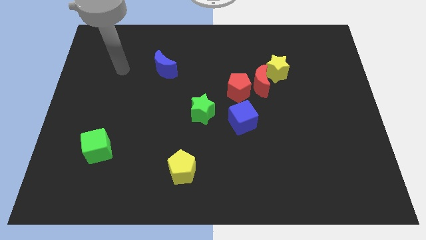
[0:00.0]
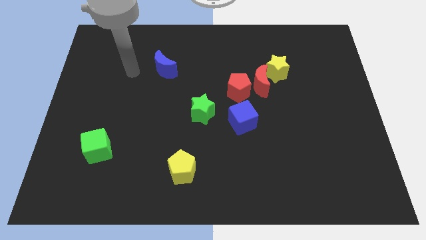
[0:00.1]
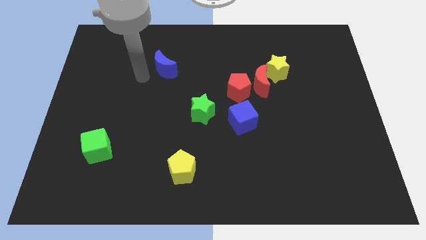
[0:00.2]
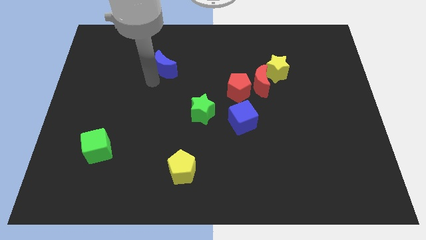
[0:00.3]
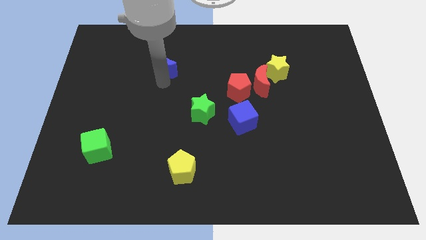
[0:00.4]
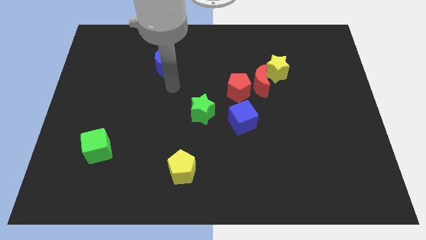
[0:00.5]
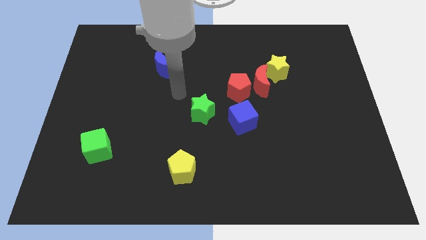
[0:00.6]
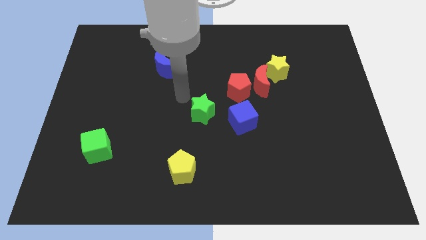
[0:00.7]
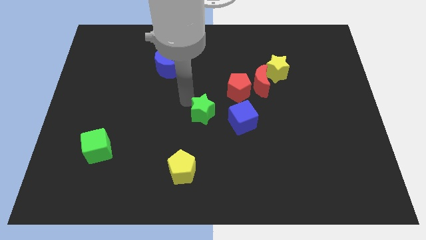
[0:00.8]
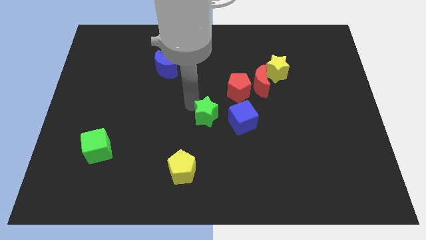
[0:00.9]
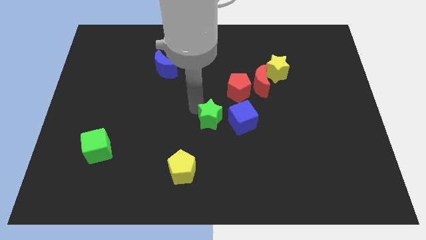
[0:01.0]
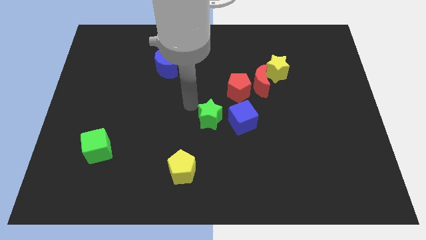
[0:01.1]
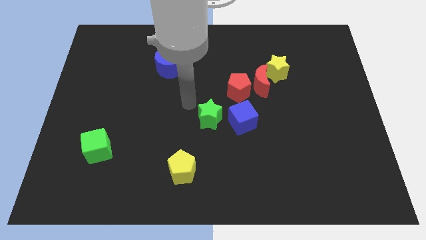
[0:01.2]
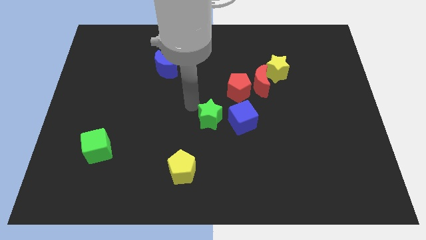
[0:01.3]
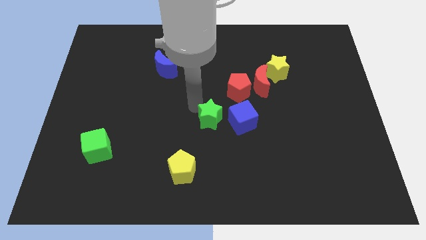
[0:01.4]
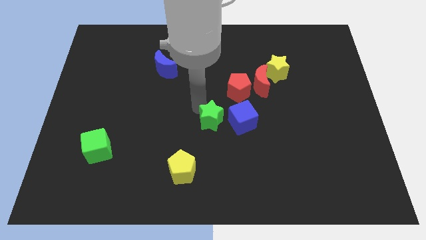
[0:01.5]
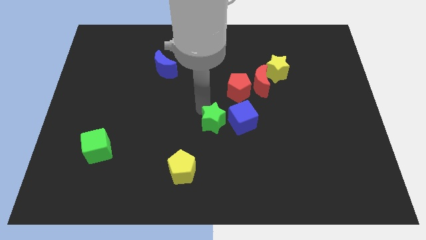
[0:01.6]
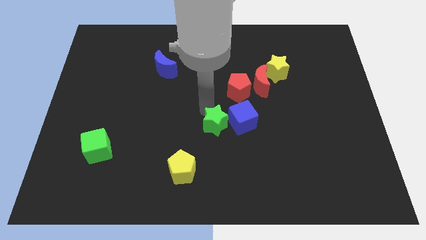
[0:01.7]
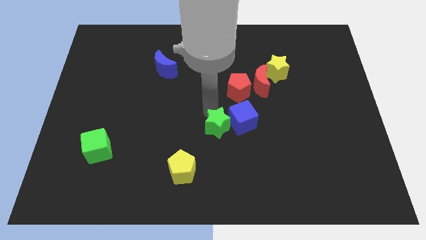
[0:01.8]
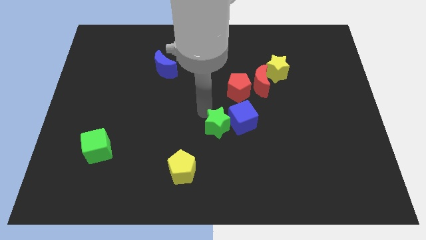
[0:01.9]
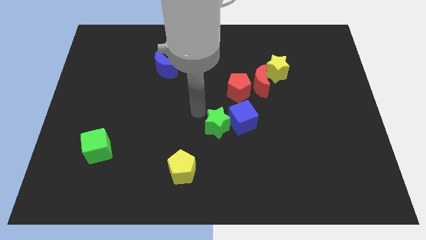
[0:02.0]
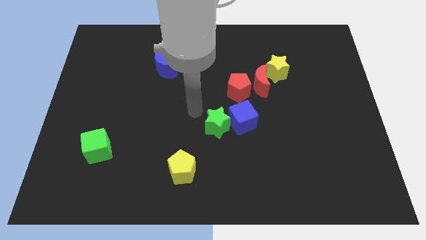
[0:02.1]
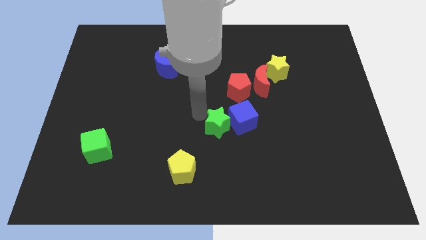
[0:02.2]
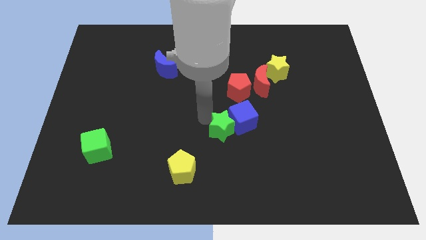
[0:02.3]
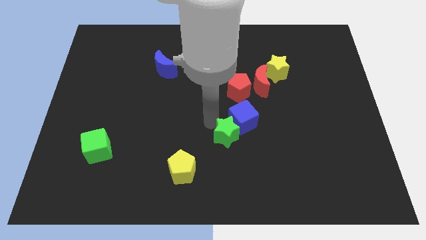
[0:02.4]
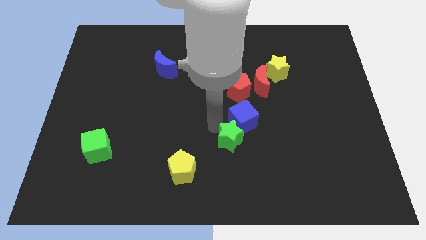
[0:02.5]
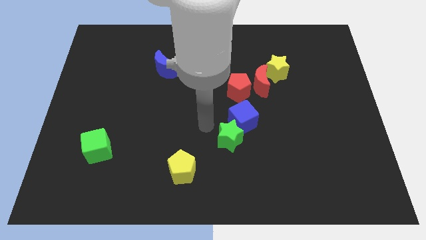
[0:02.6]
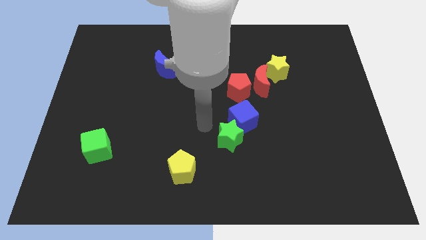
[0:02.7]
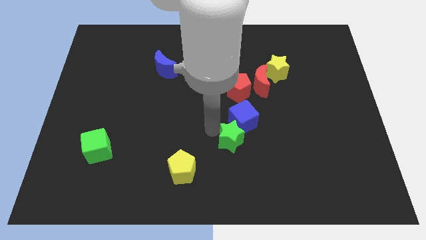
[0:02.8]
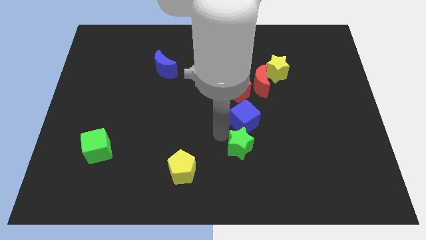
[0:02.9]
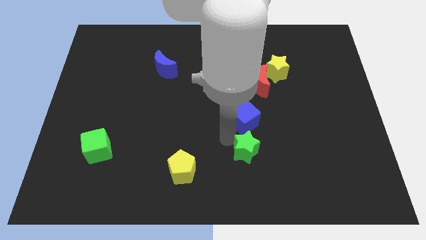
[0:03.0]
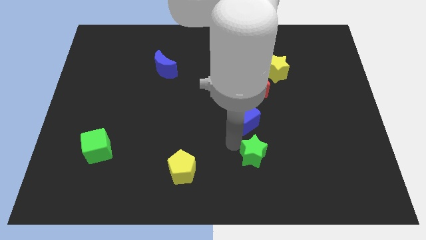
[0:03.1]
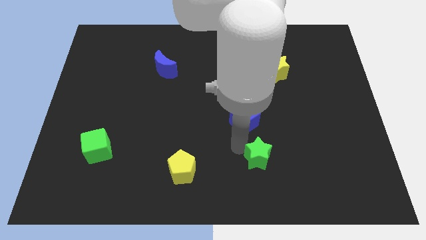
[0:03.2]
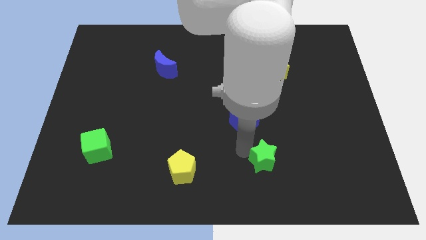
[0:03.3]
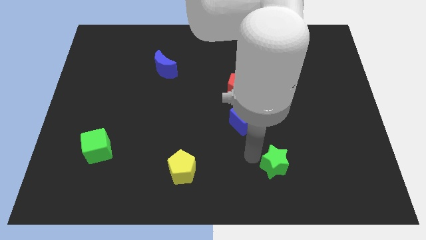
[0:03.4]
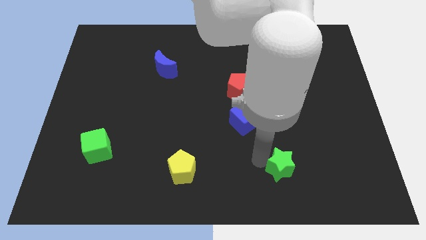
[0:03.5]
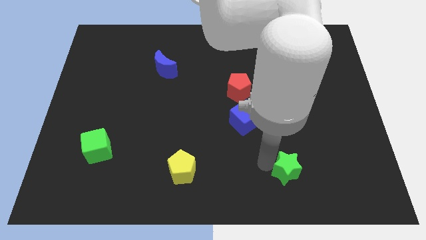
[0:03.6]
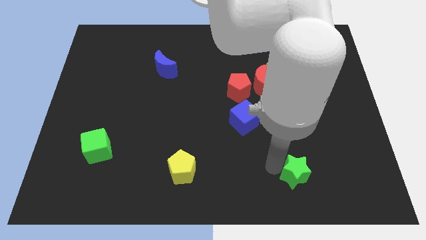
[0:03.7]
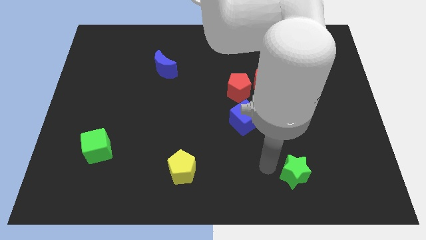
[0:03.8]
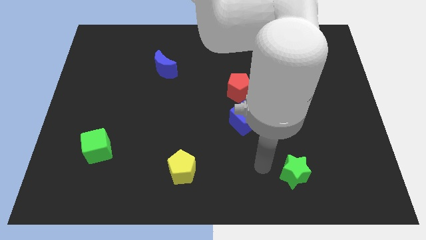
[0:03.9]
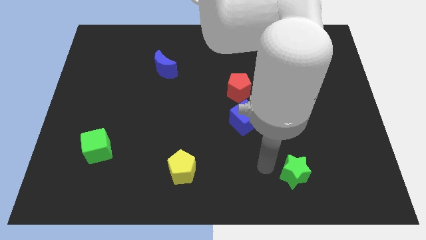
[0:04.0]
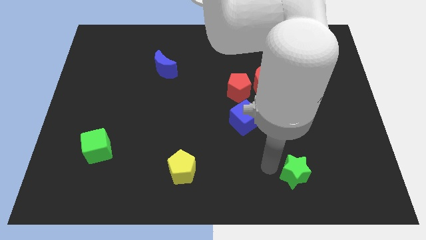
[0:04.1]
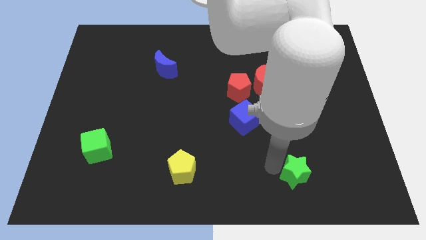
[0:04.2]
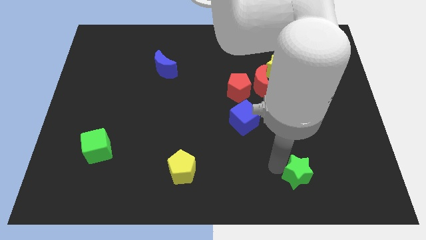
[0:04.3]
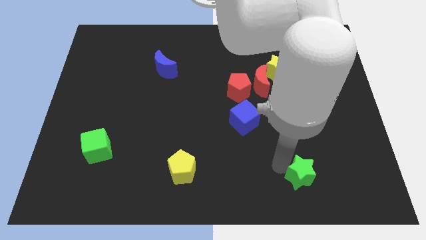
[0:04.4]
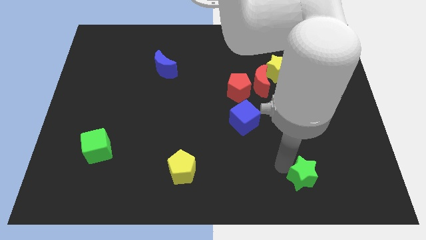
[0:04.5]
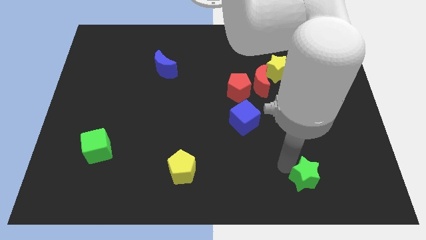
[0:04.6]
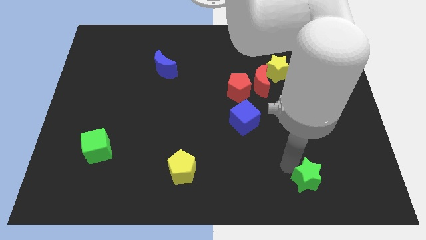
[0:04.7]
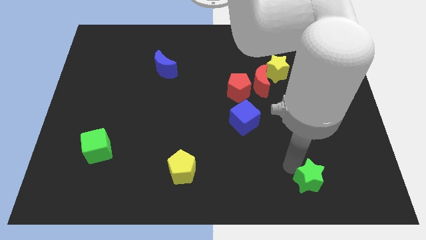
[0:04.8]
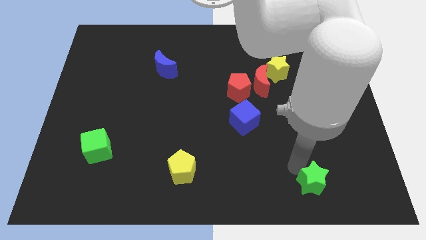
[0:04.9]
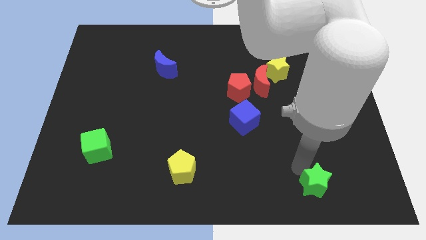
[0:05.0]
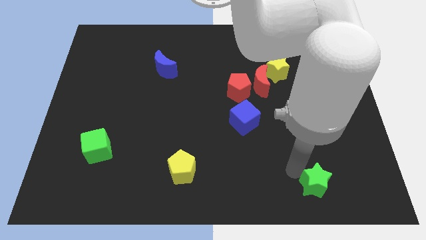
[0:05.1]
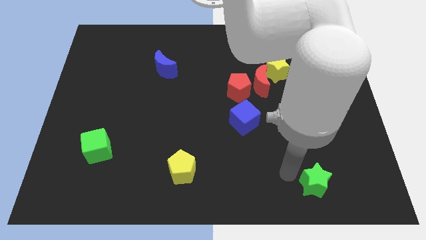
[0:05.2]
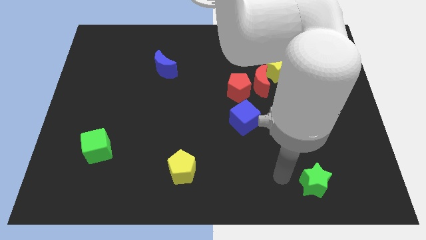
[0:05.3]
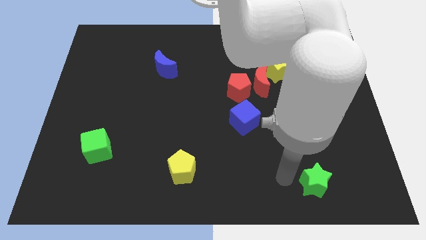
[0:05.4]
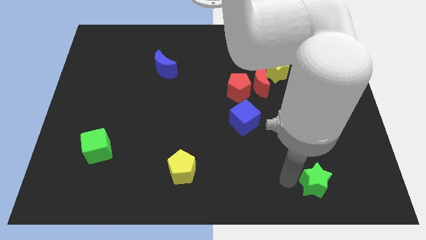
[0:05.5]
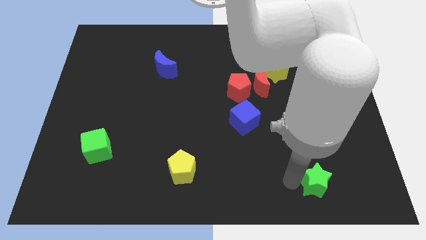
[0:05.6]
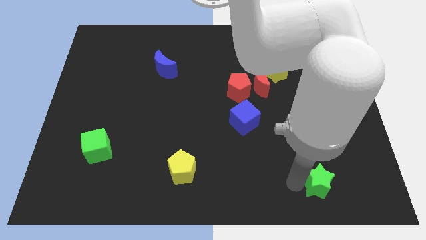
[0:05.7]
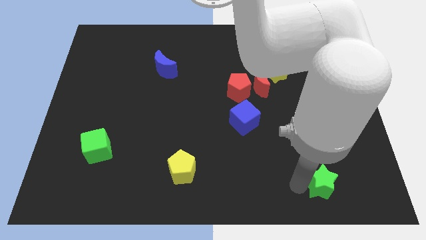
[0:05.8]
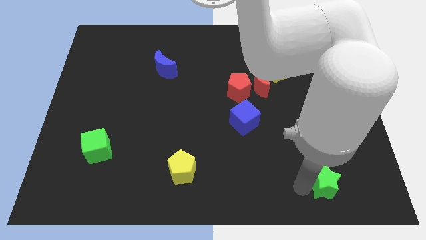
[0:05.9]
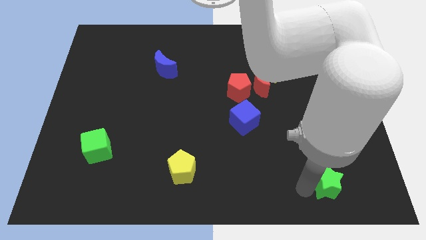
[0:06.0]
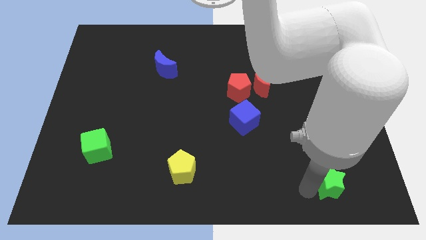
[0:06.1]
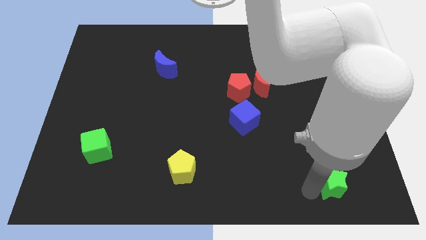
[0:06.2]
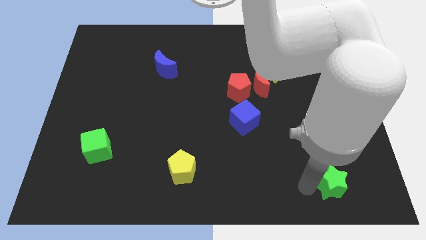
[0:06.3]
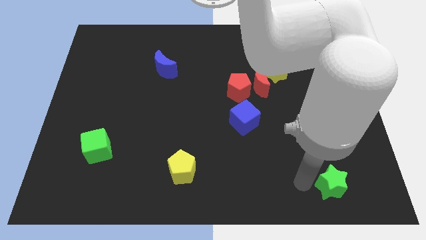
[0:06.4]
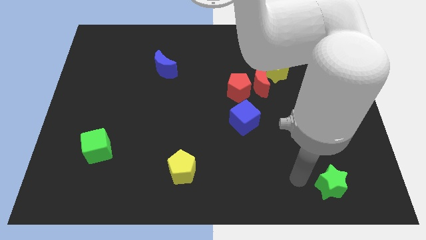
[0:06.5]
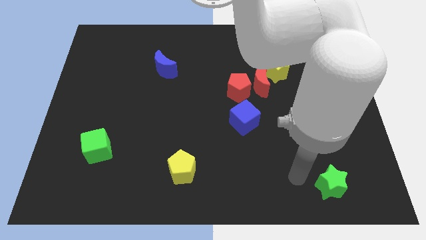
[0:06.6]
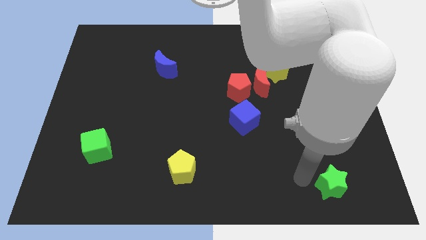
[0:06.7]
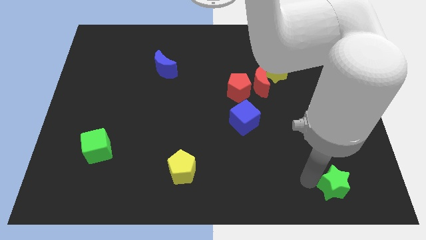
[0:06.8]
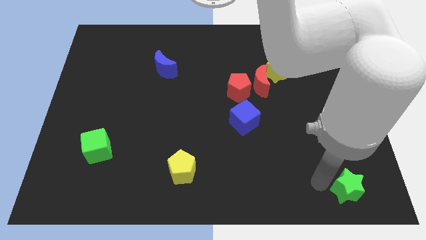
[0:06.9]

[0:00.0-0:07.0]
put the green star to the lower right corner

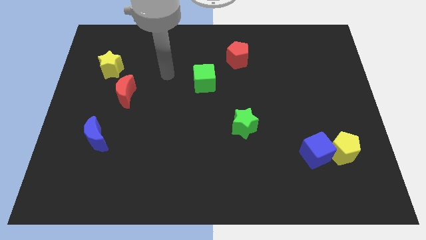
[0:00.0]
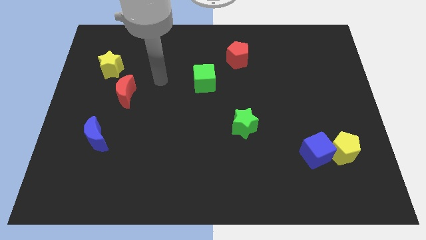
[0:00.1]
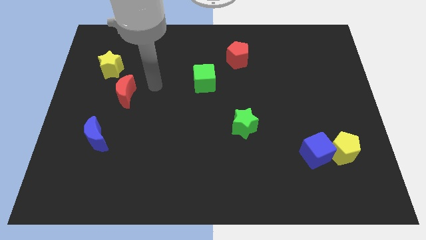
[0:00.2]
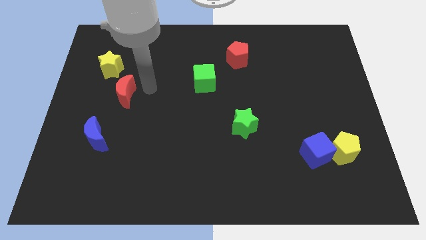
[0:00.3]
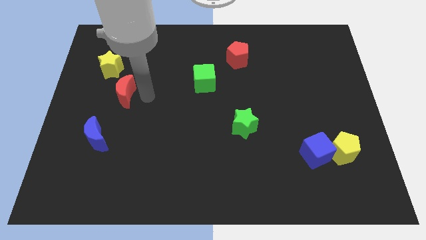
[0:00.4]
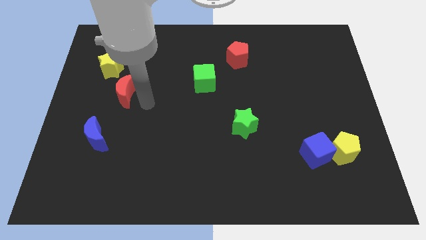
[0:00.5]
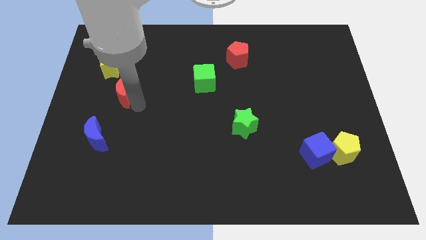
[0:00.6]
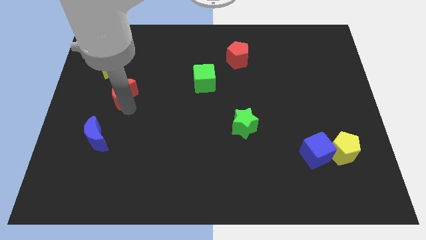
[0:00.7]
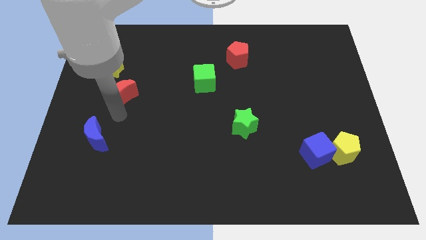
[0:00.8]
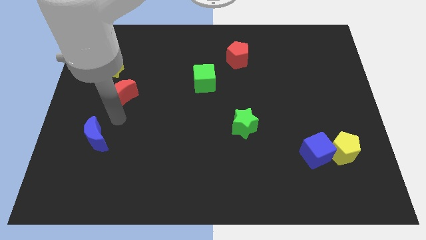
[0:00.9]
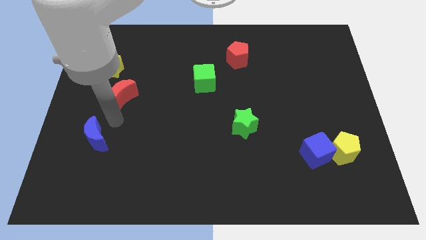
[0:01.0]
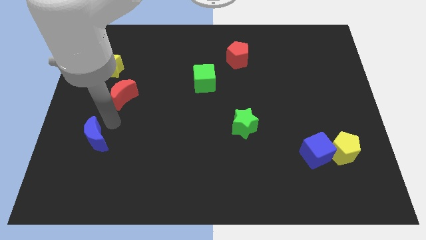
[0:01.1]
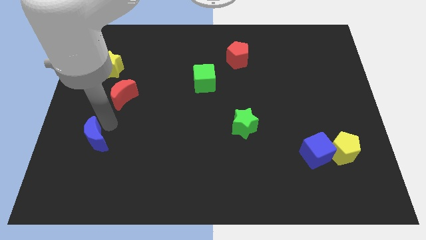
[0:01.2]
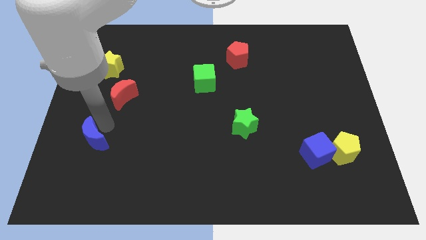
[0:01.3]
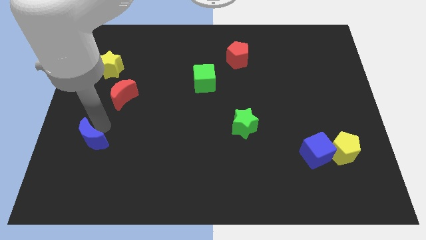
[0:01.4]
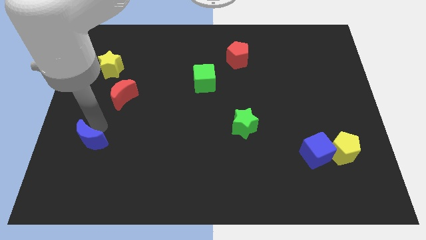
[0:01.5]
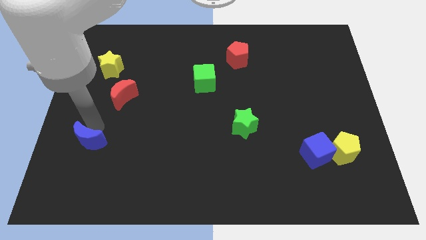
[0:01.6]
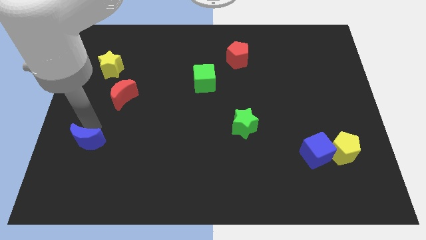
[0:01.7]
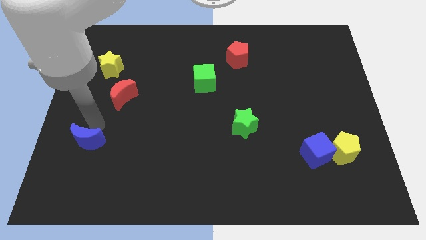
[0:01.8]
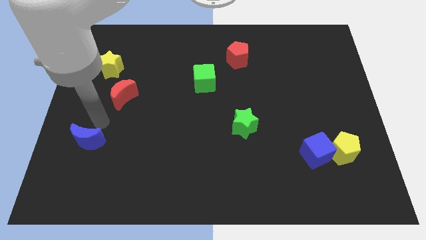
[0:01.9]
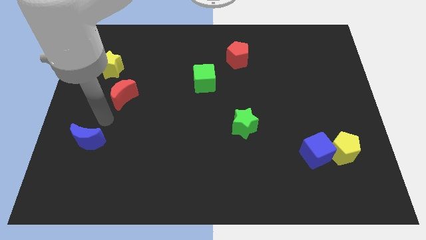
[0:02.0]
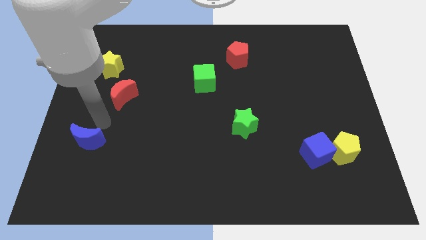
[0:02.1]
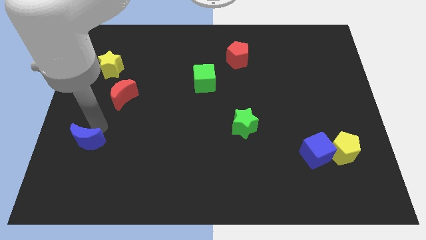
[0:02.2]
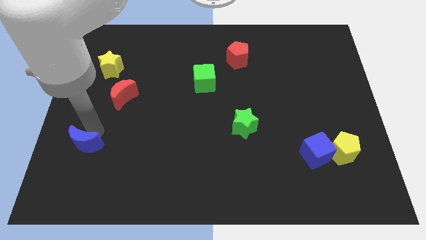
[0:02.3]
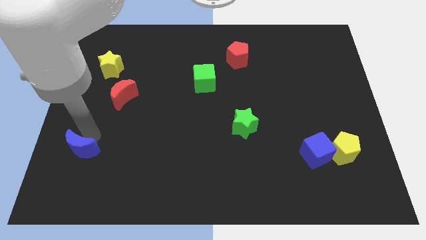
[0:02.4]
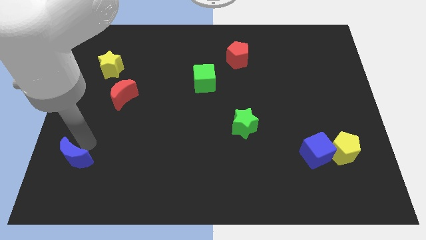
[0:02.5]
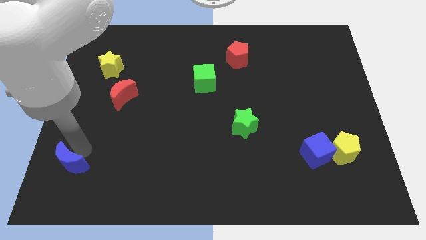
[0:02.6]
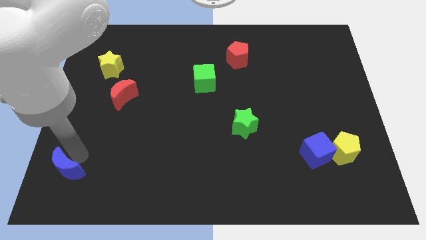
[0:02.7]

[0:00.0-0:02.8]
put the blue moon to the lower left corner
